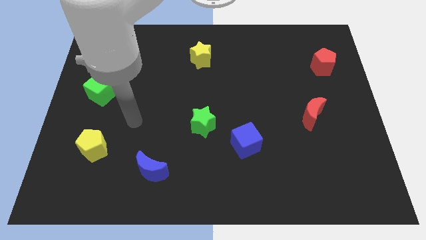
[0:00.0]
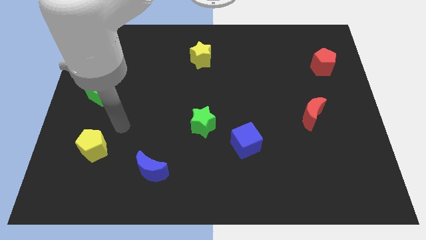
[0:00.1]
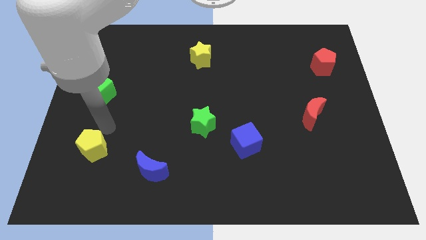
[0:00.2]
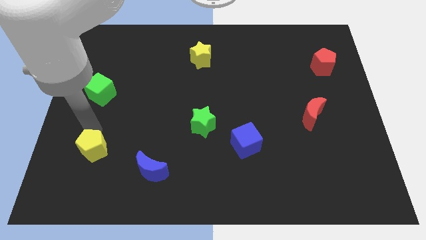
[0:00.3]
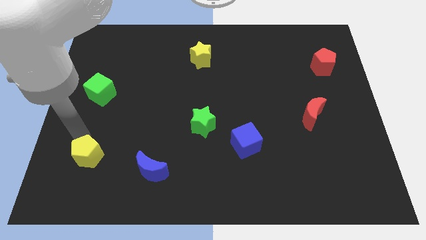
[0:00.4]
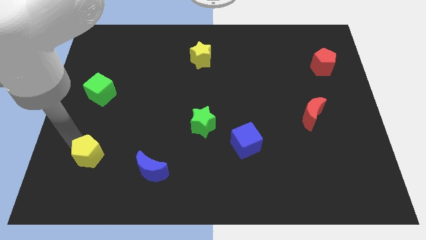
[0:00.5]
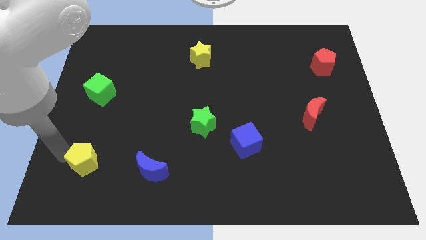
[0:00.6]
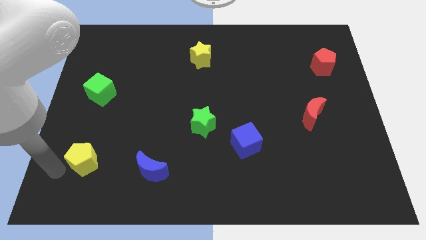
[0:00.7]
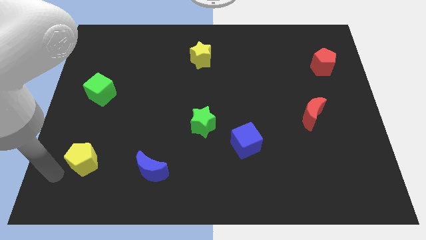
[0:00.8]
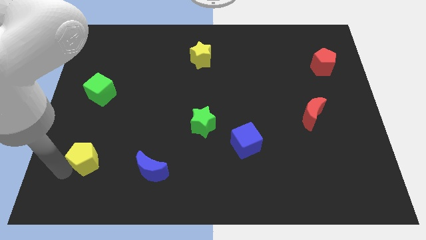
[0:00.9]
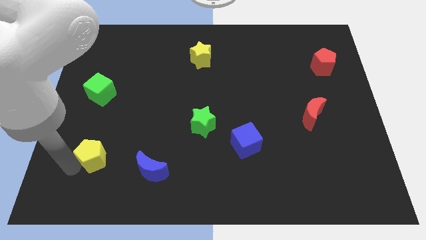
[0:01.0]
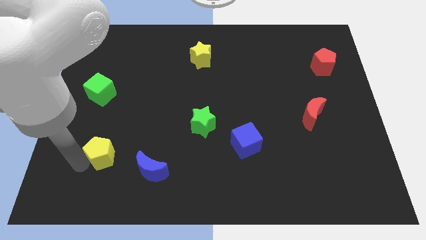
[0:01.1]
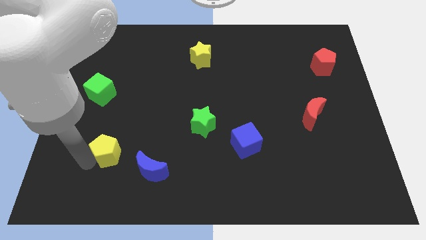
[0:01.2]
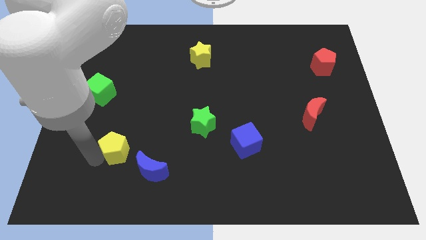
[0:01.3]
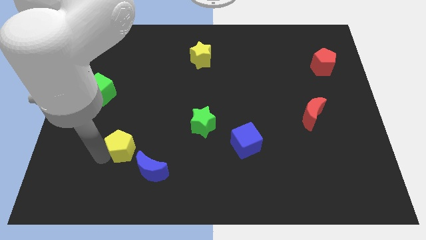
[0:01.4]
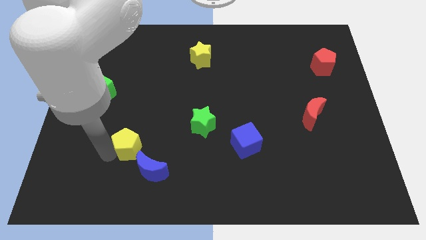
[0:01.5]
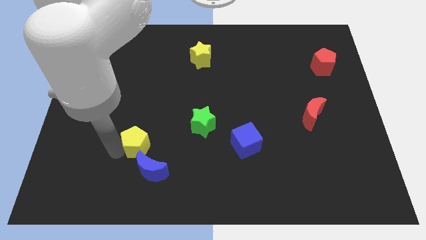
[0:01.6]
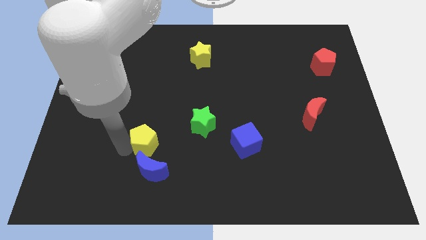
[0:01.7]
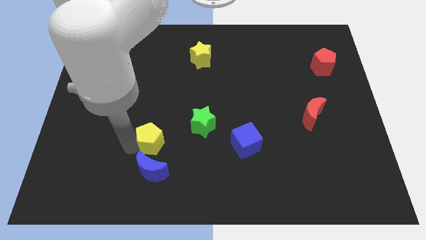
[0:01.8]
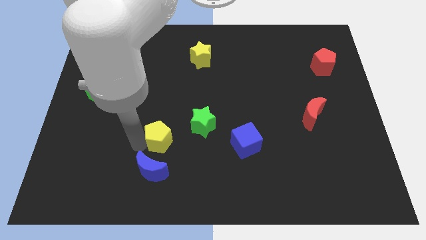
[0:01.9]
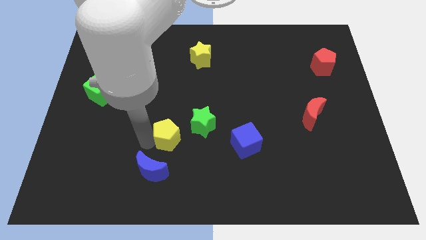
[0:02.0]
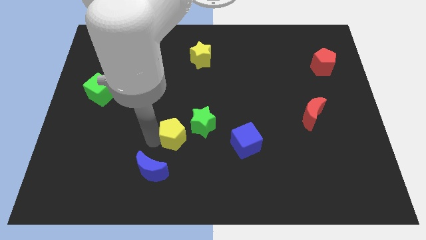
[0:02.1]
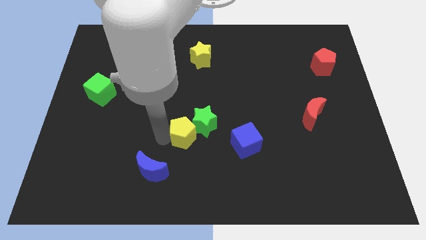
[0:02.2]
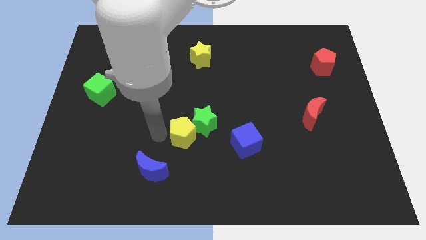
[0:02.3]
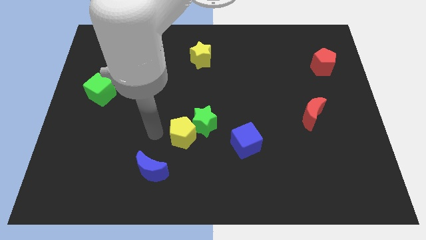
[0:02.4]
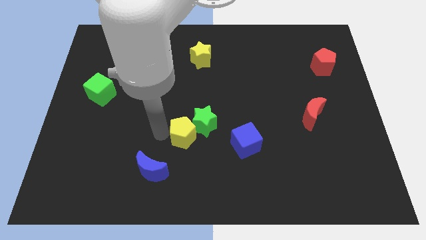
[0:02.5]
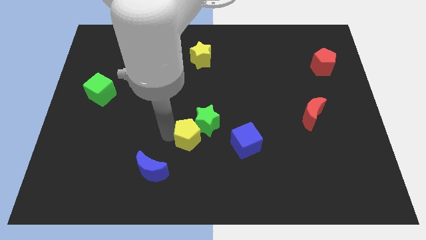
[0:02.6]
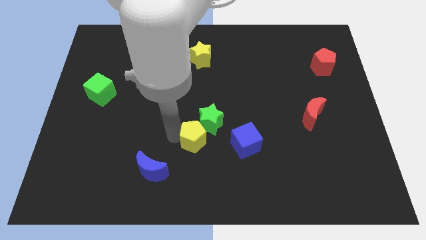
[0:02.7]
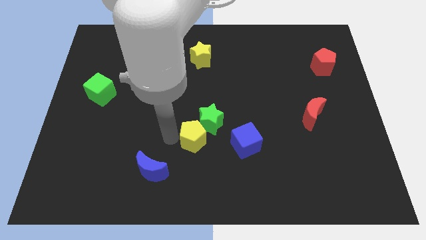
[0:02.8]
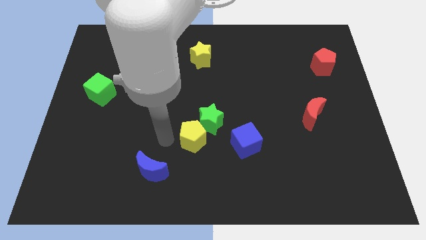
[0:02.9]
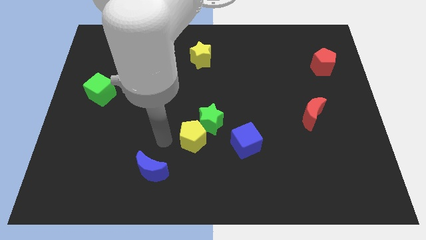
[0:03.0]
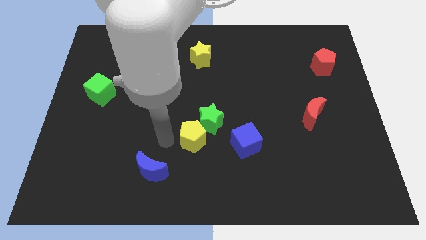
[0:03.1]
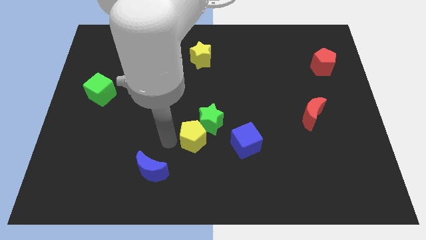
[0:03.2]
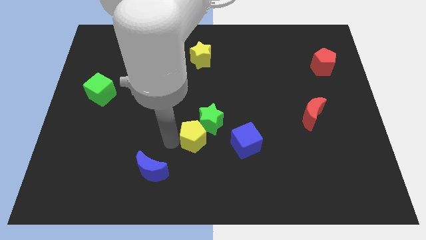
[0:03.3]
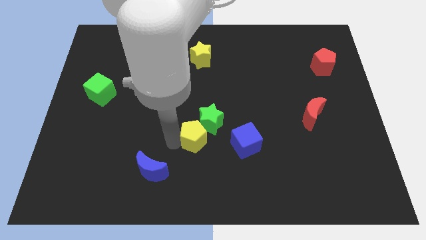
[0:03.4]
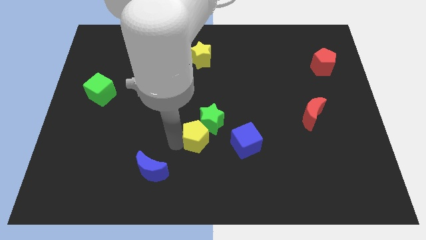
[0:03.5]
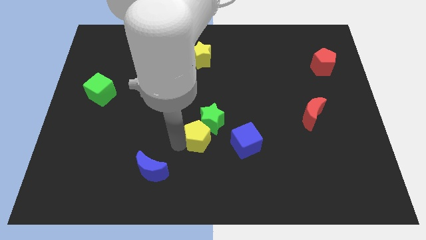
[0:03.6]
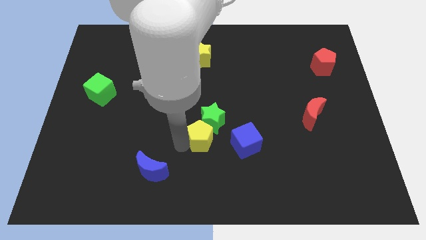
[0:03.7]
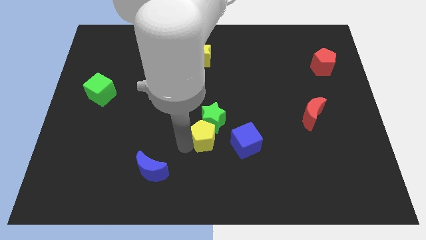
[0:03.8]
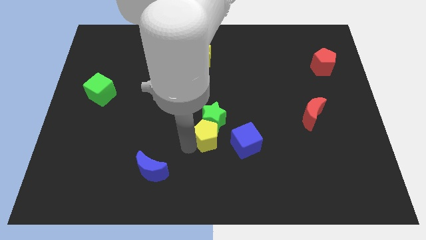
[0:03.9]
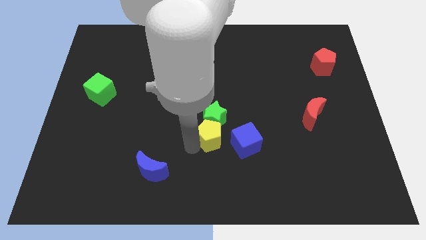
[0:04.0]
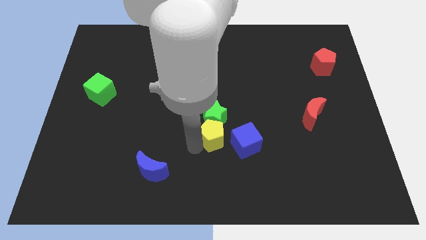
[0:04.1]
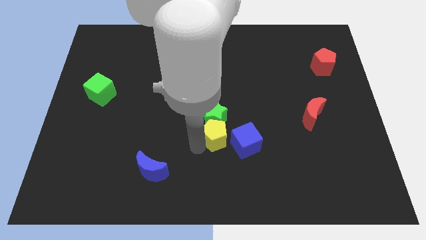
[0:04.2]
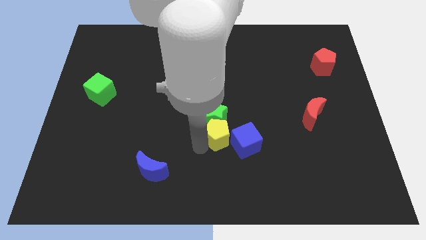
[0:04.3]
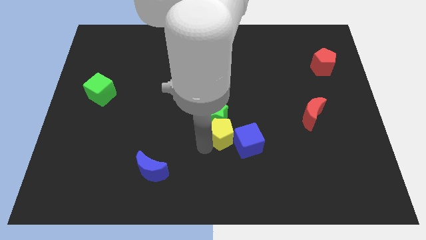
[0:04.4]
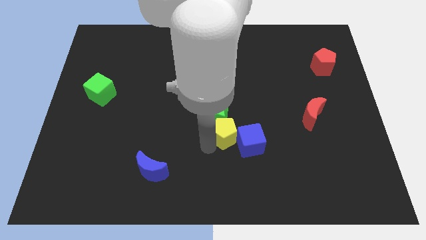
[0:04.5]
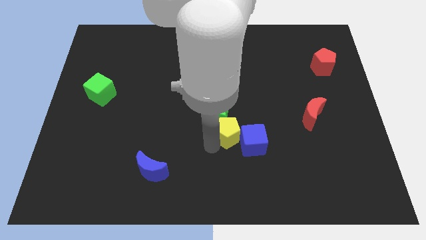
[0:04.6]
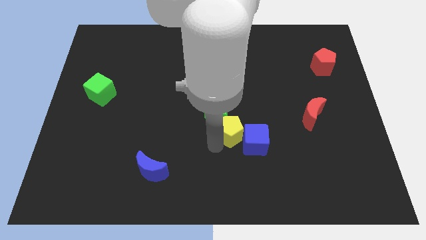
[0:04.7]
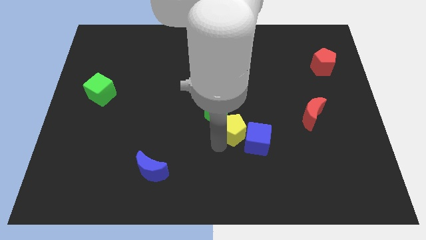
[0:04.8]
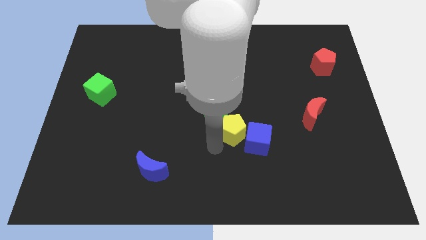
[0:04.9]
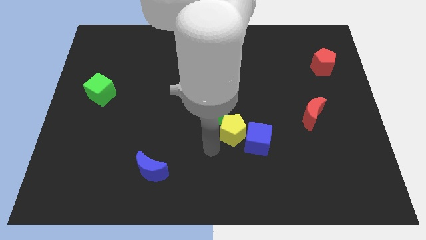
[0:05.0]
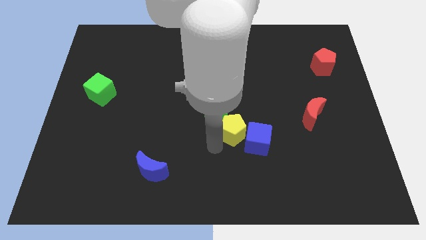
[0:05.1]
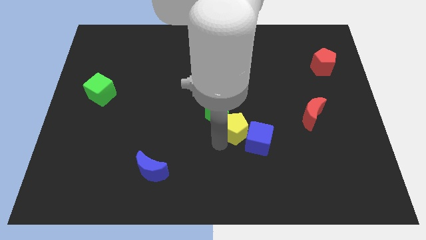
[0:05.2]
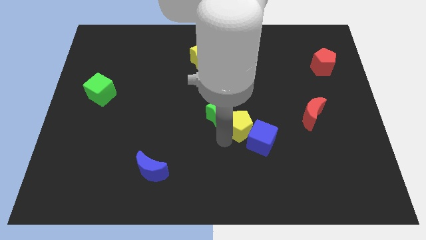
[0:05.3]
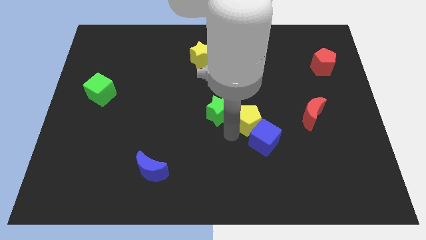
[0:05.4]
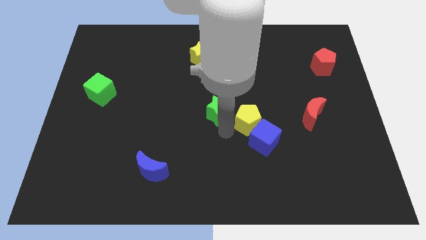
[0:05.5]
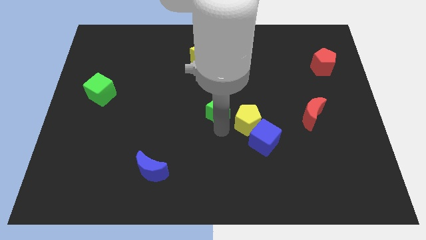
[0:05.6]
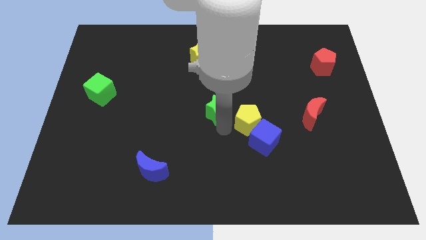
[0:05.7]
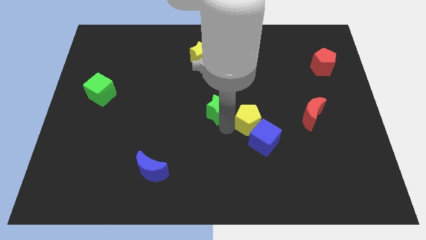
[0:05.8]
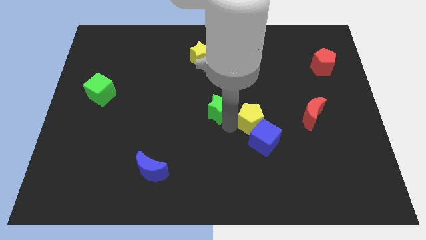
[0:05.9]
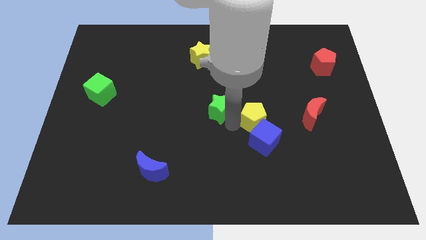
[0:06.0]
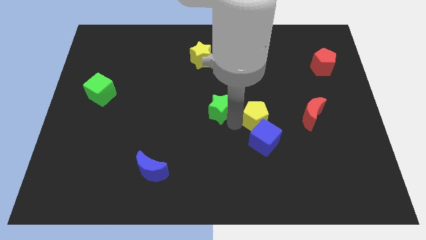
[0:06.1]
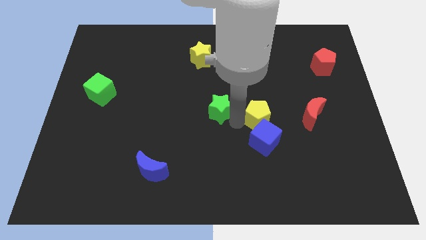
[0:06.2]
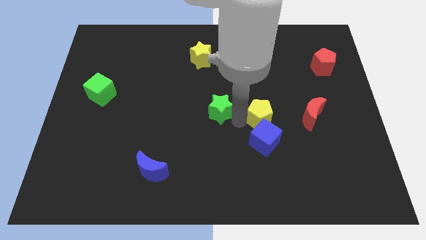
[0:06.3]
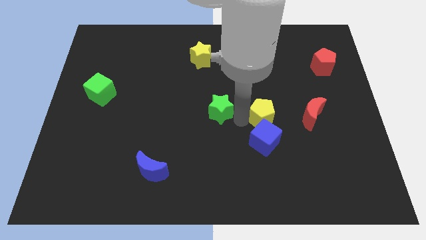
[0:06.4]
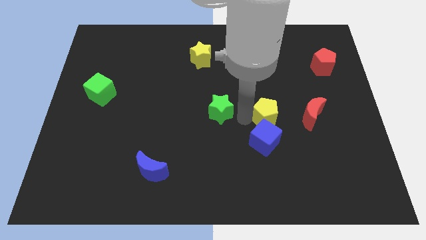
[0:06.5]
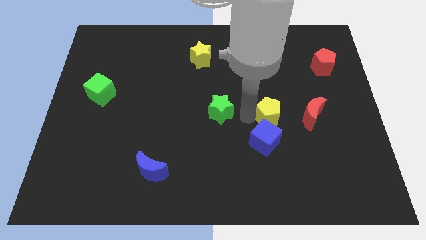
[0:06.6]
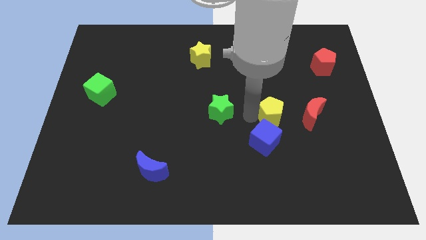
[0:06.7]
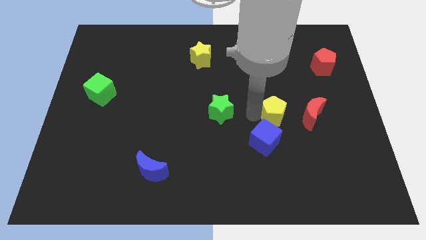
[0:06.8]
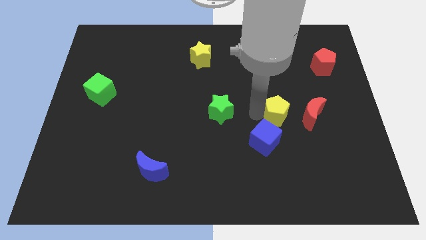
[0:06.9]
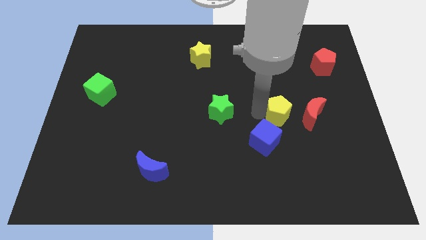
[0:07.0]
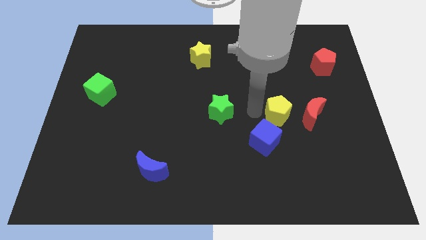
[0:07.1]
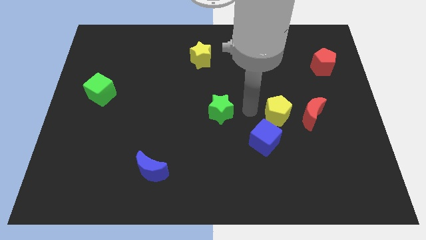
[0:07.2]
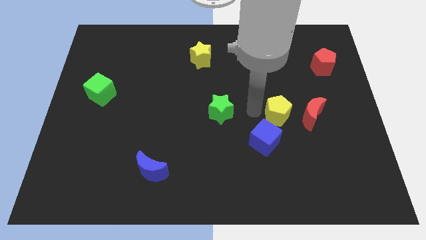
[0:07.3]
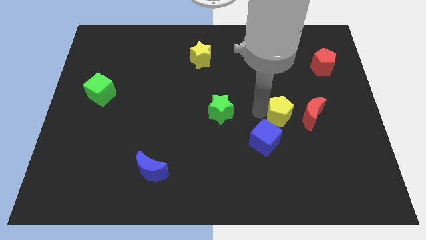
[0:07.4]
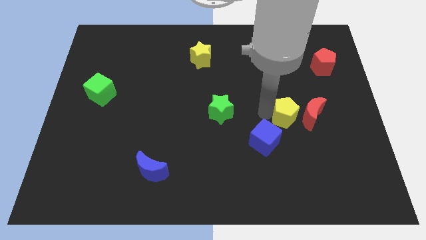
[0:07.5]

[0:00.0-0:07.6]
put the yellow pentagon to the red moon
